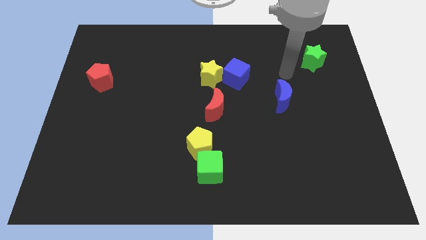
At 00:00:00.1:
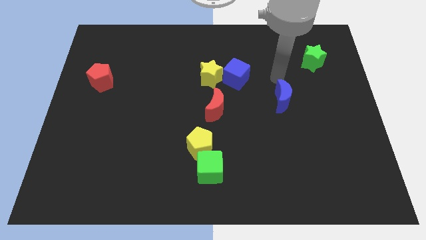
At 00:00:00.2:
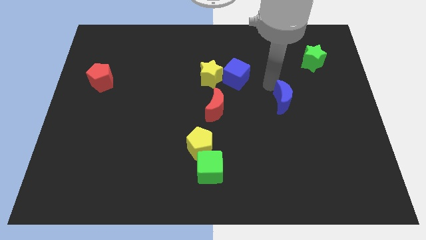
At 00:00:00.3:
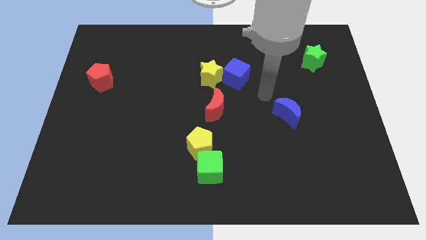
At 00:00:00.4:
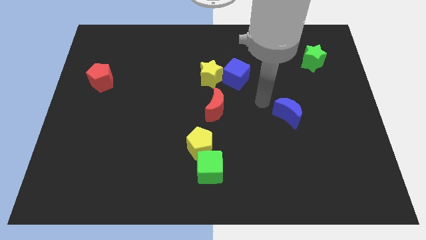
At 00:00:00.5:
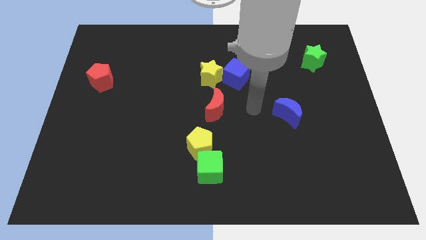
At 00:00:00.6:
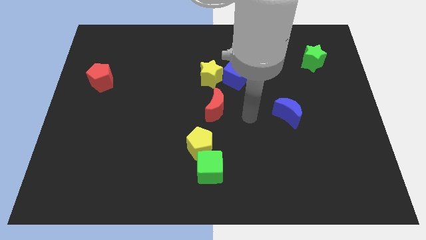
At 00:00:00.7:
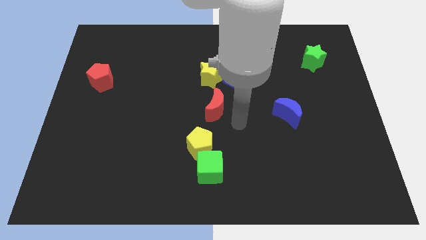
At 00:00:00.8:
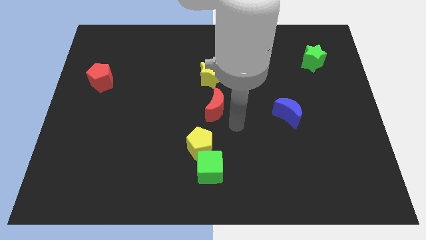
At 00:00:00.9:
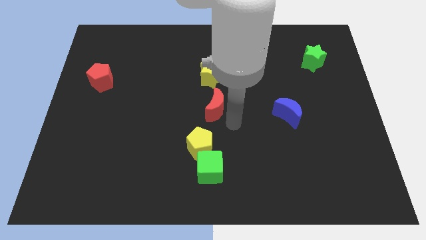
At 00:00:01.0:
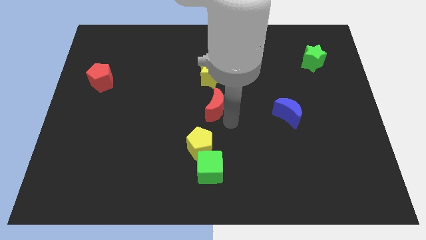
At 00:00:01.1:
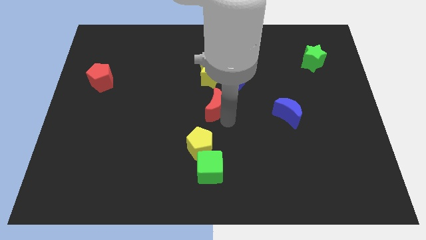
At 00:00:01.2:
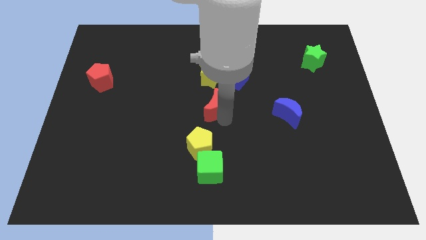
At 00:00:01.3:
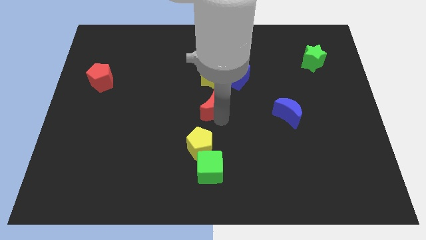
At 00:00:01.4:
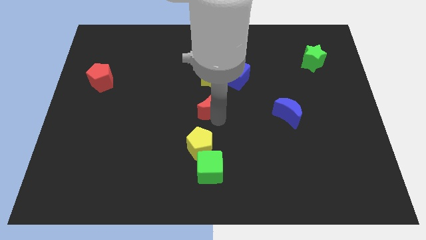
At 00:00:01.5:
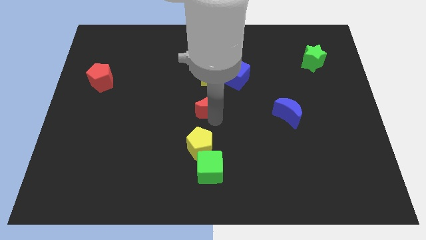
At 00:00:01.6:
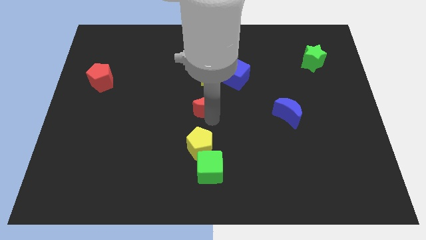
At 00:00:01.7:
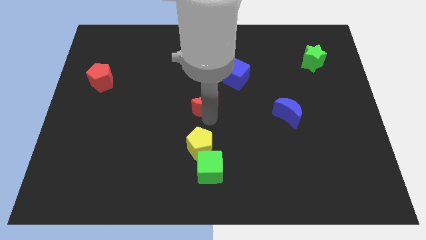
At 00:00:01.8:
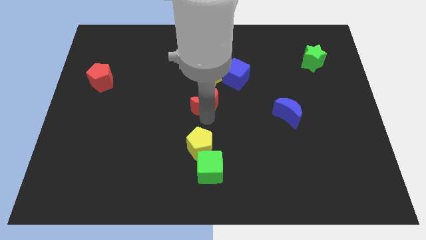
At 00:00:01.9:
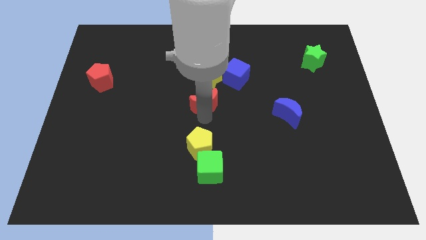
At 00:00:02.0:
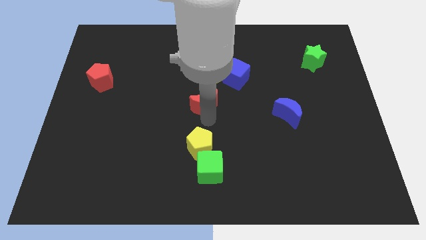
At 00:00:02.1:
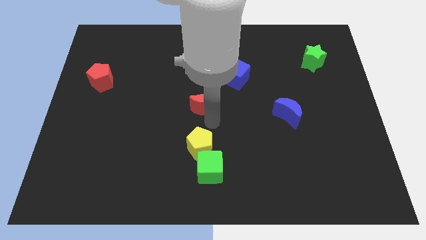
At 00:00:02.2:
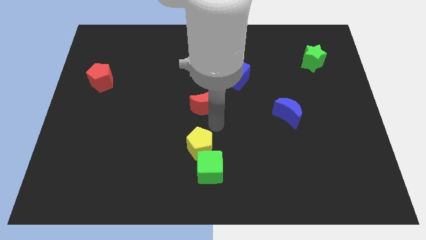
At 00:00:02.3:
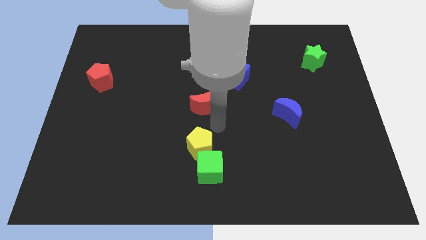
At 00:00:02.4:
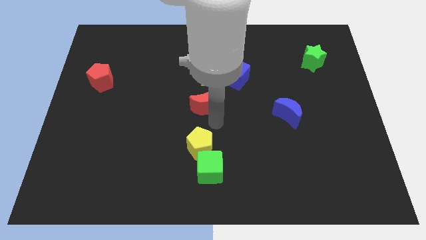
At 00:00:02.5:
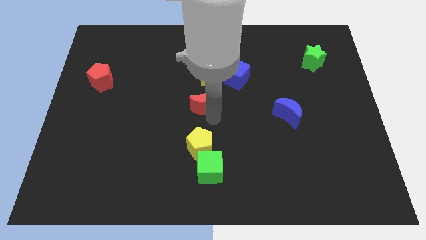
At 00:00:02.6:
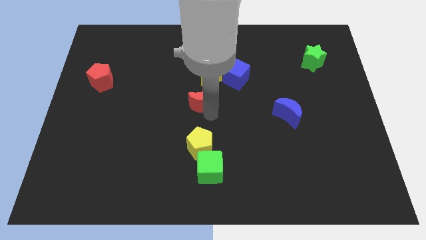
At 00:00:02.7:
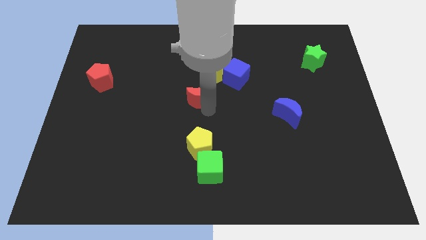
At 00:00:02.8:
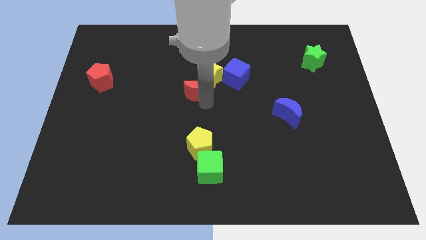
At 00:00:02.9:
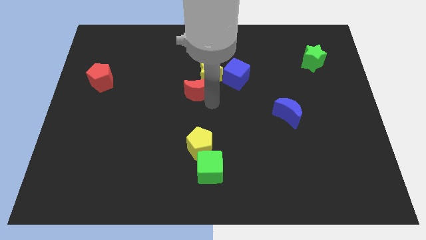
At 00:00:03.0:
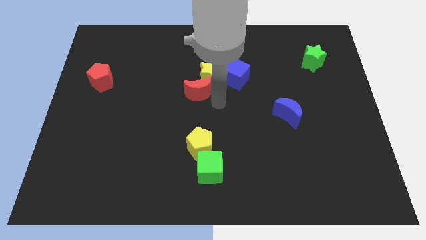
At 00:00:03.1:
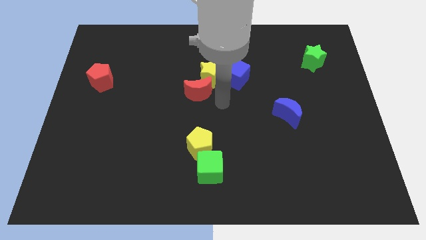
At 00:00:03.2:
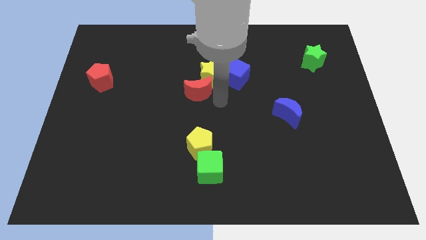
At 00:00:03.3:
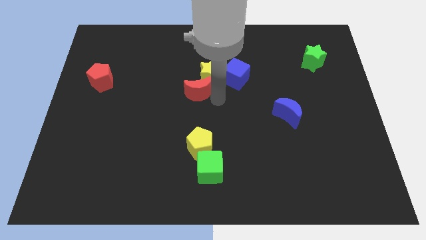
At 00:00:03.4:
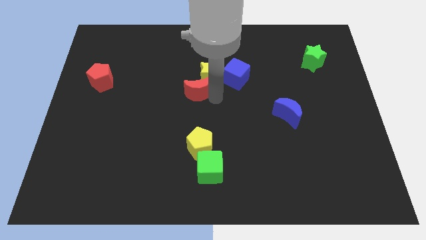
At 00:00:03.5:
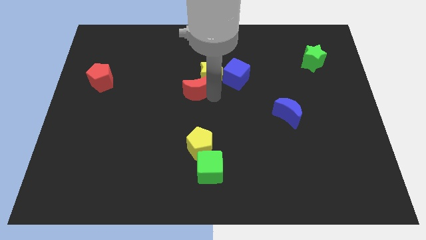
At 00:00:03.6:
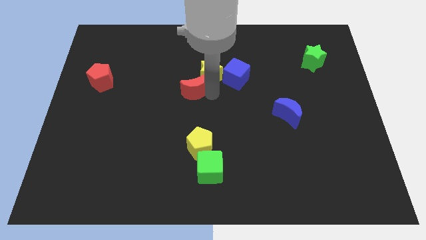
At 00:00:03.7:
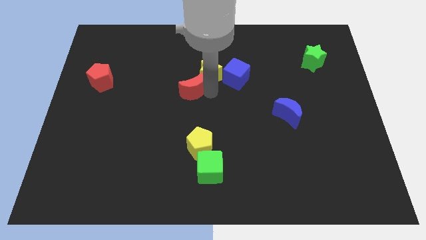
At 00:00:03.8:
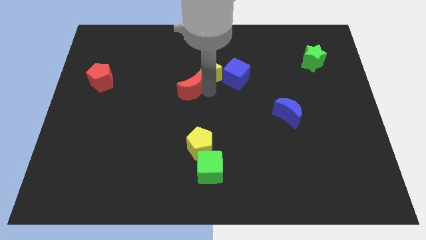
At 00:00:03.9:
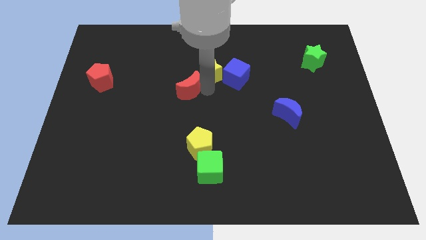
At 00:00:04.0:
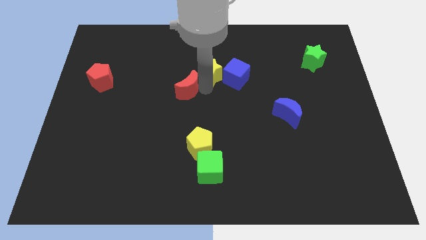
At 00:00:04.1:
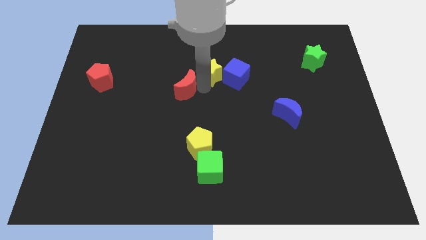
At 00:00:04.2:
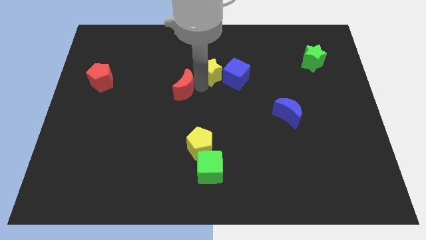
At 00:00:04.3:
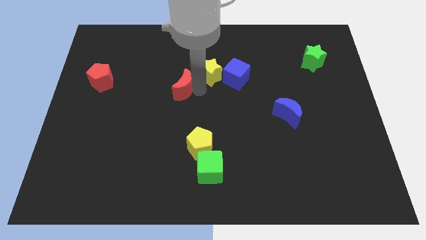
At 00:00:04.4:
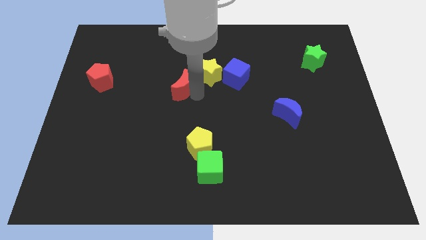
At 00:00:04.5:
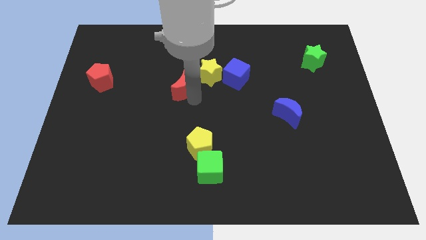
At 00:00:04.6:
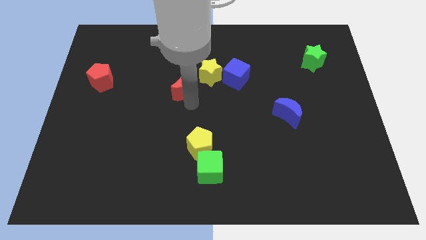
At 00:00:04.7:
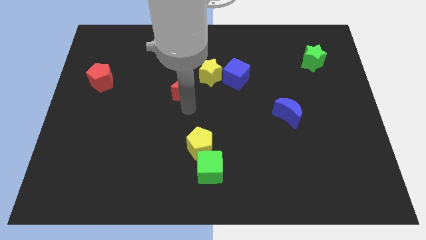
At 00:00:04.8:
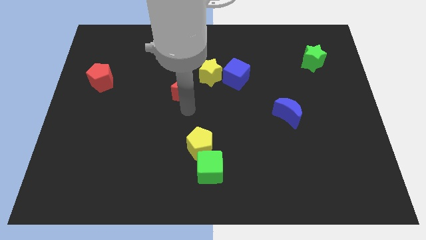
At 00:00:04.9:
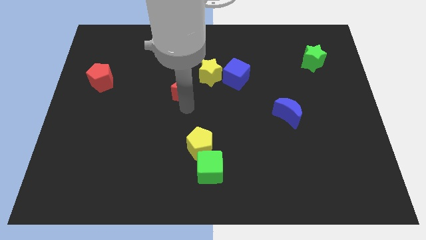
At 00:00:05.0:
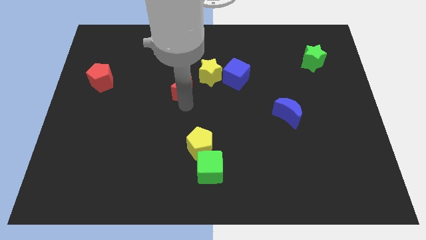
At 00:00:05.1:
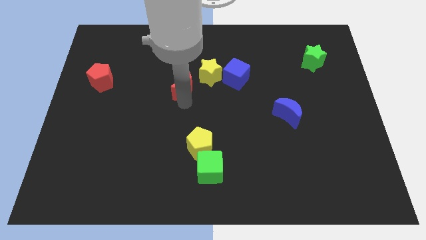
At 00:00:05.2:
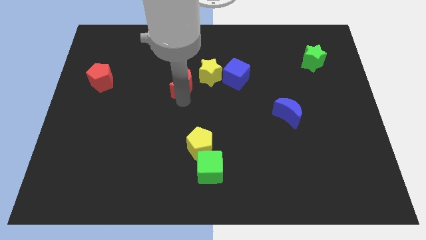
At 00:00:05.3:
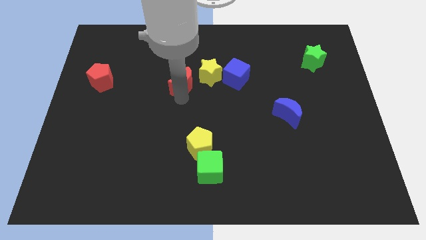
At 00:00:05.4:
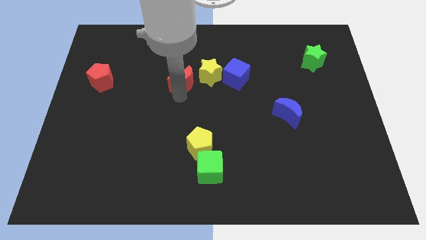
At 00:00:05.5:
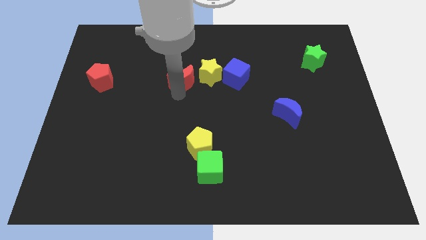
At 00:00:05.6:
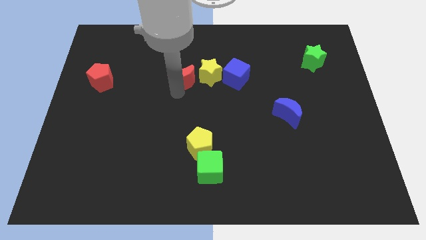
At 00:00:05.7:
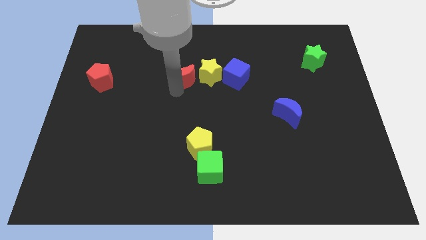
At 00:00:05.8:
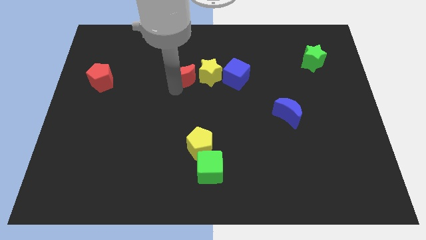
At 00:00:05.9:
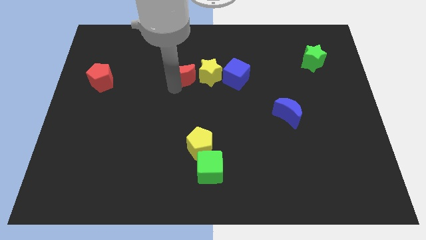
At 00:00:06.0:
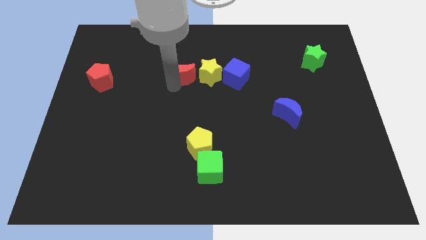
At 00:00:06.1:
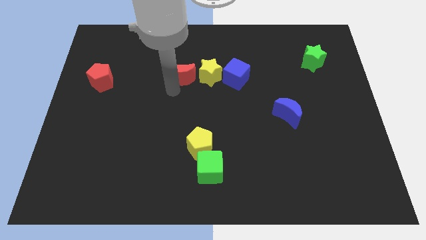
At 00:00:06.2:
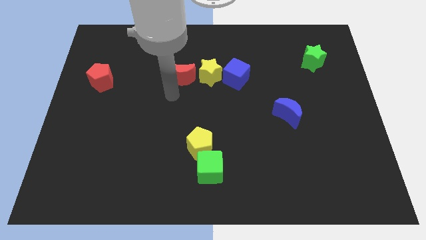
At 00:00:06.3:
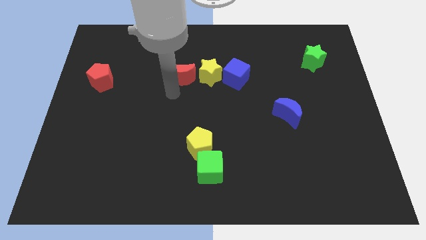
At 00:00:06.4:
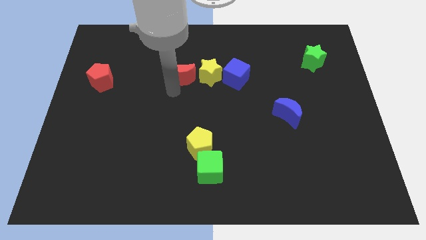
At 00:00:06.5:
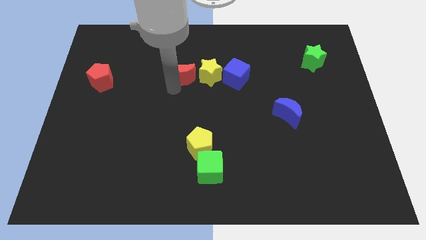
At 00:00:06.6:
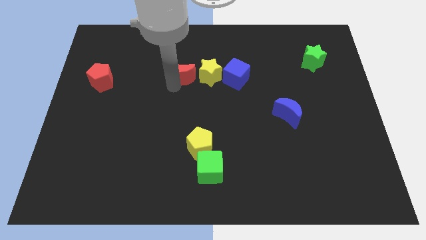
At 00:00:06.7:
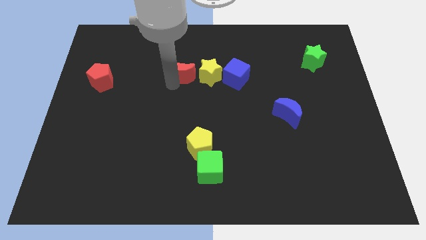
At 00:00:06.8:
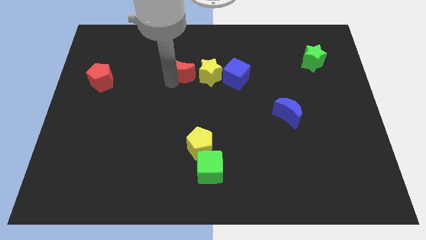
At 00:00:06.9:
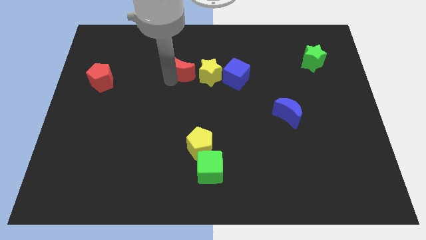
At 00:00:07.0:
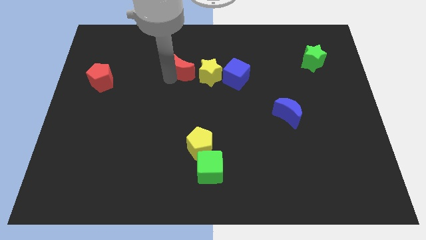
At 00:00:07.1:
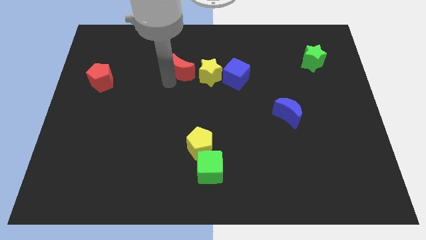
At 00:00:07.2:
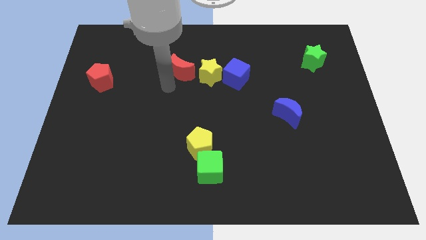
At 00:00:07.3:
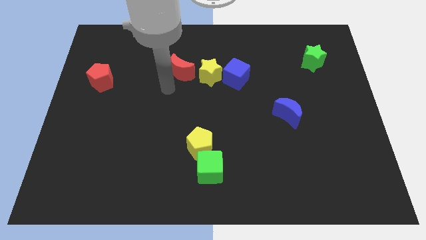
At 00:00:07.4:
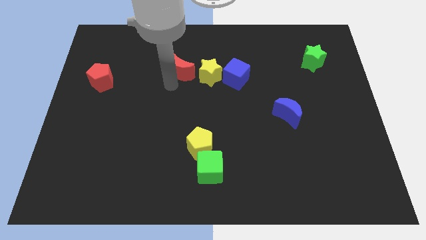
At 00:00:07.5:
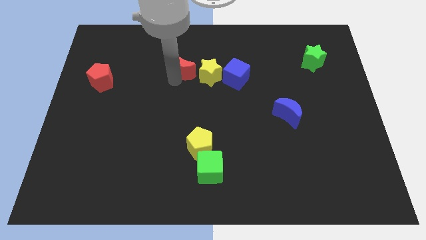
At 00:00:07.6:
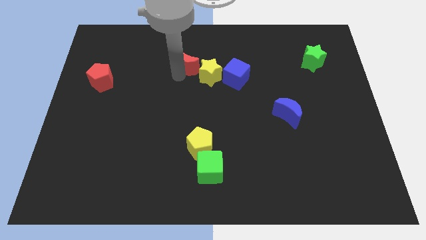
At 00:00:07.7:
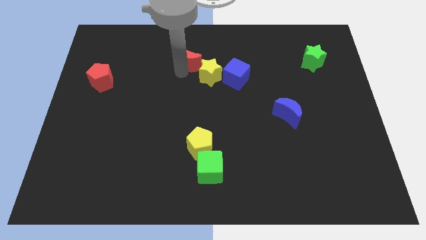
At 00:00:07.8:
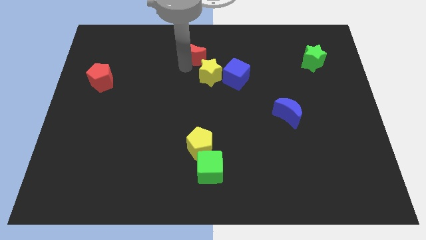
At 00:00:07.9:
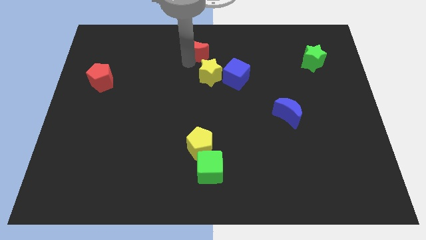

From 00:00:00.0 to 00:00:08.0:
slide the red moon to the top side
